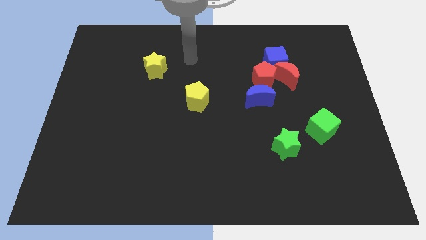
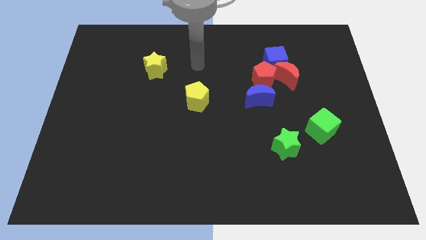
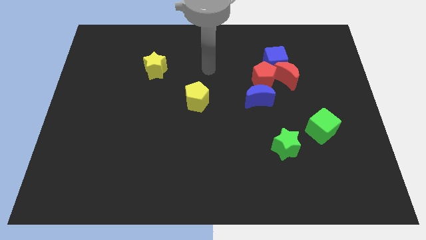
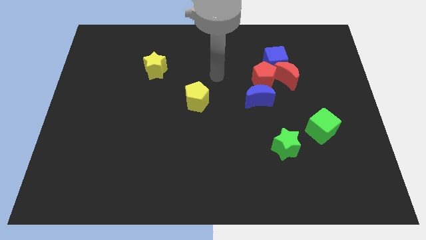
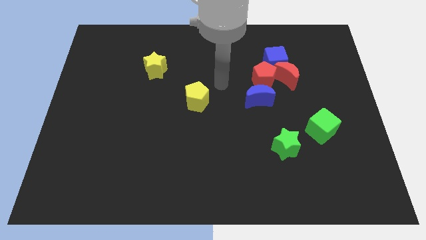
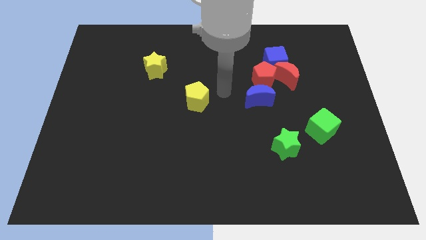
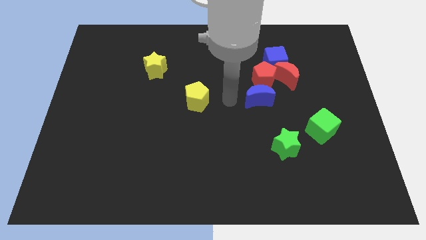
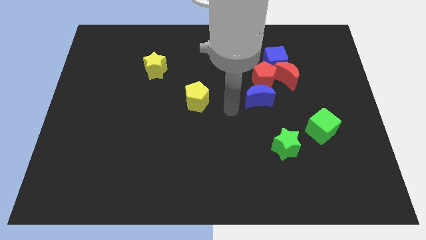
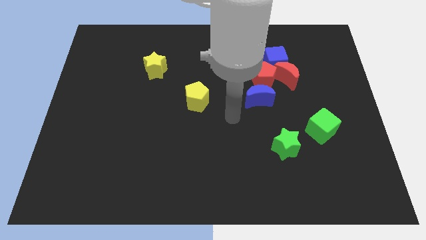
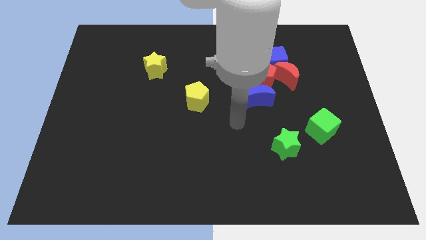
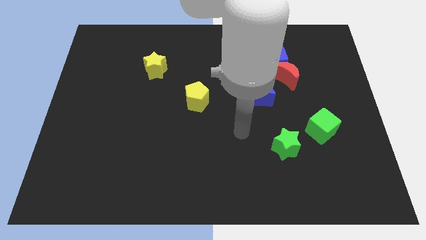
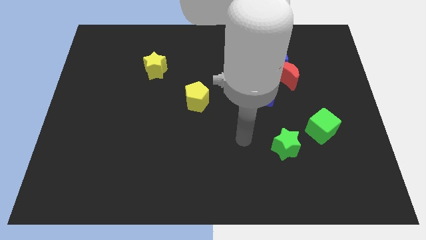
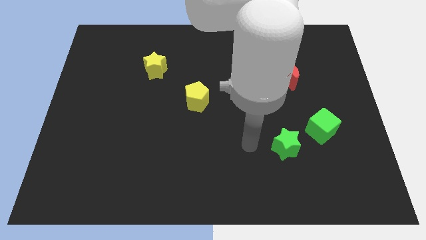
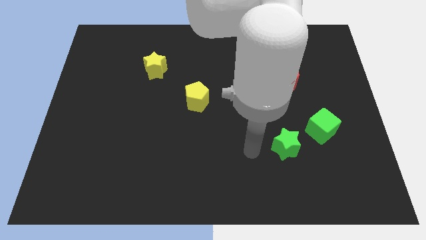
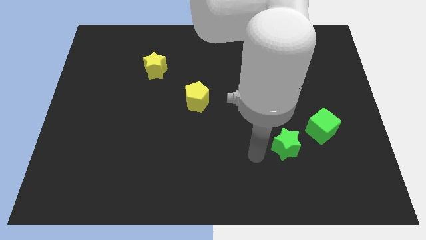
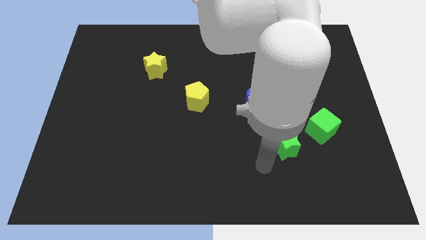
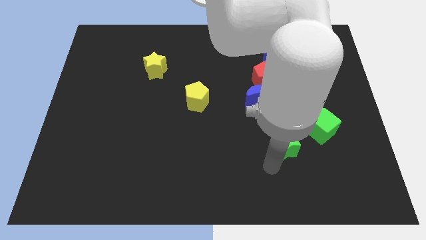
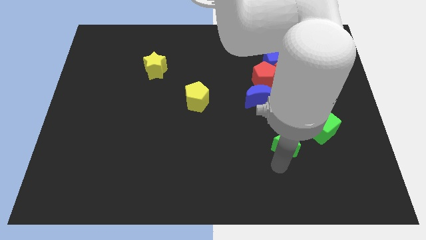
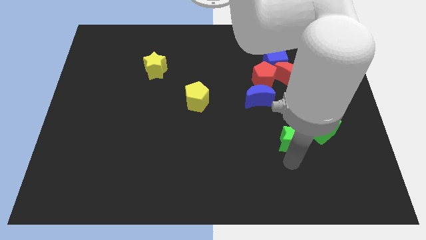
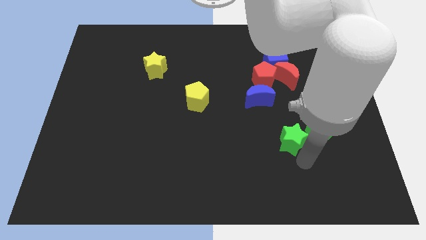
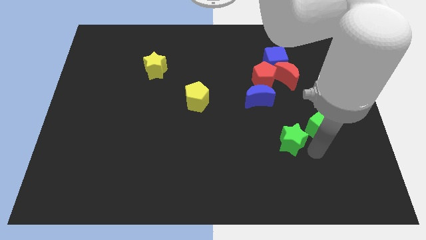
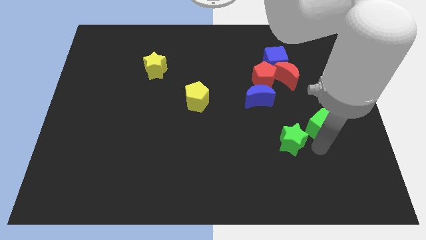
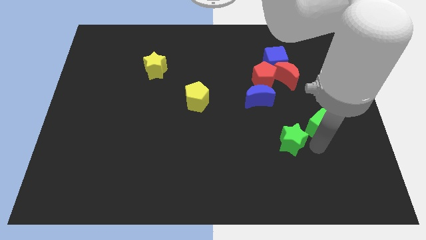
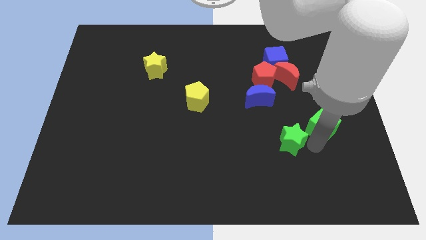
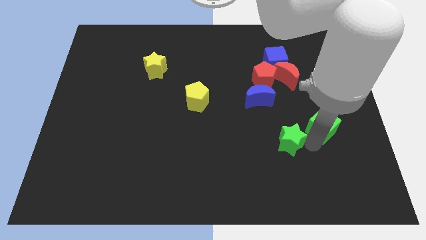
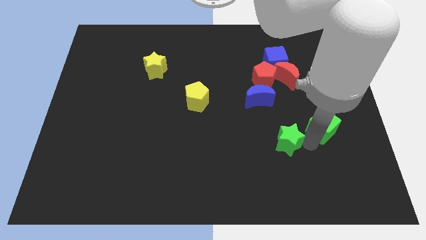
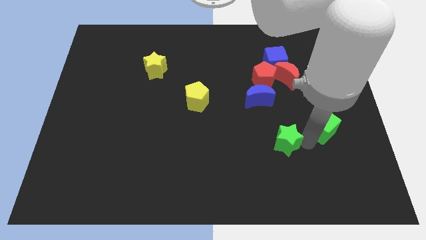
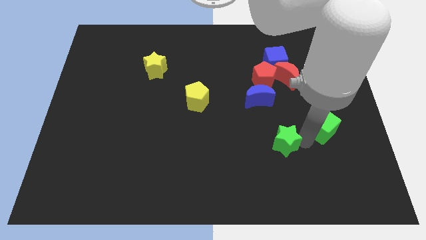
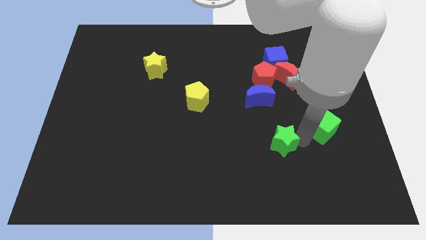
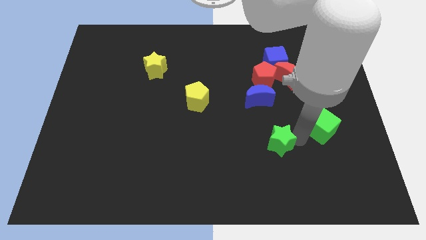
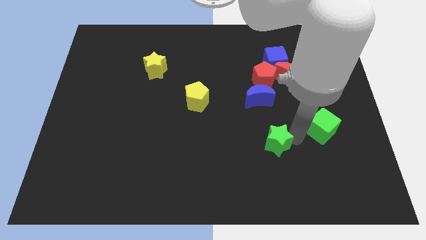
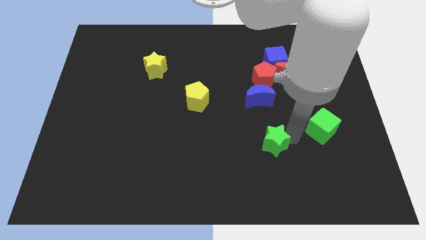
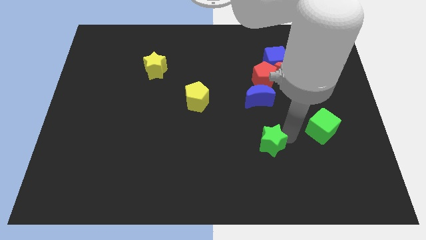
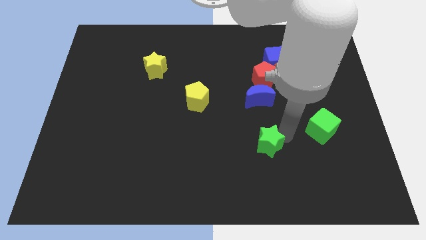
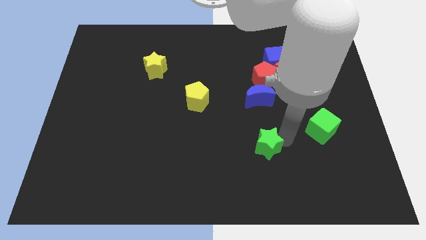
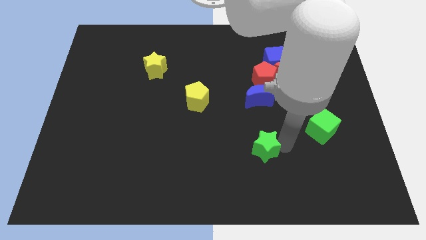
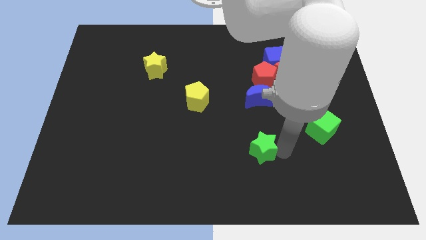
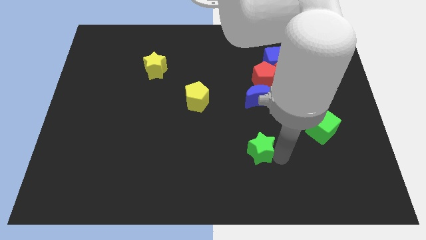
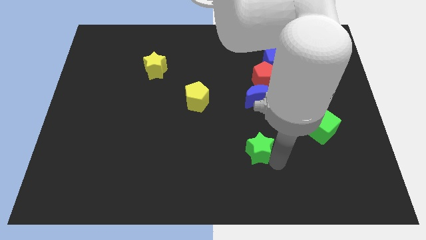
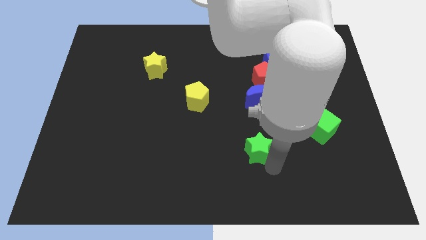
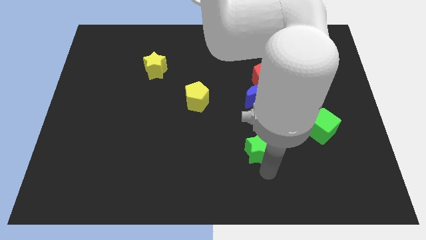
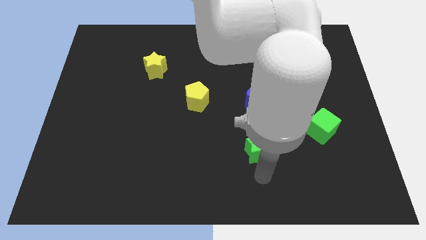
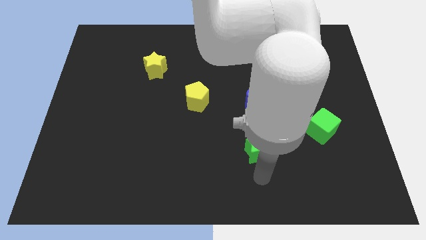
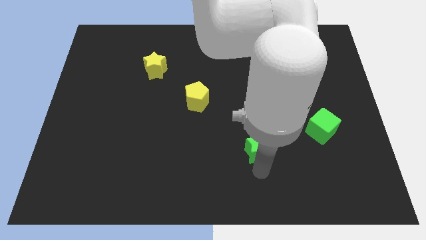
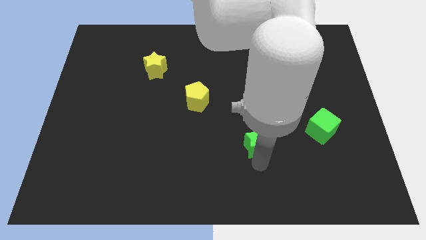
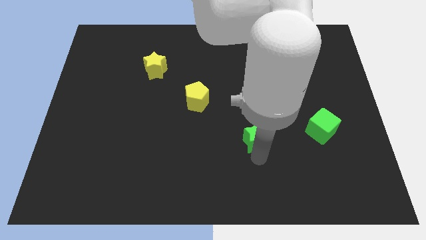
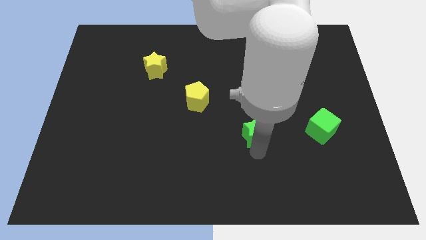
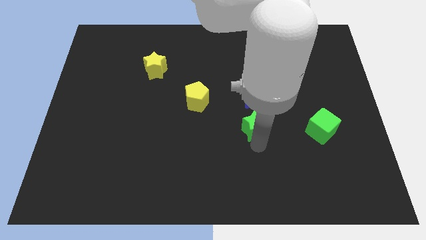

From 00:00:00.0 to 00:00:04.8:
put the green star to the bottom left of the blue moon

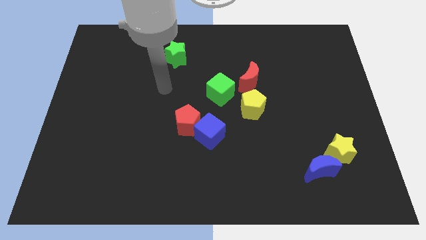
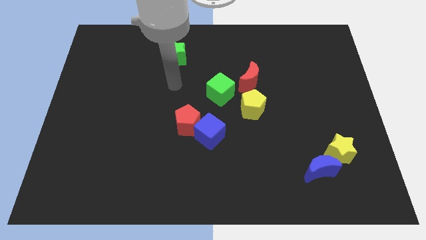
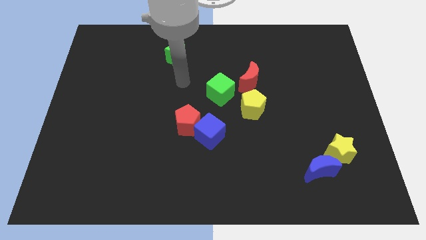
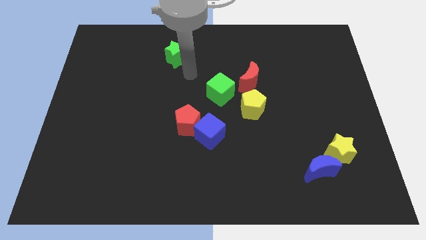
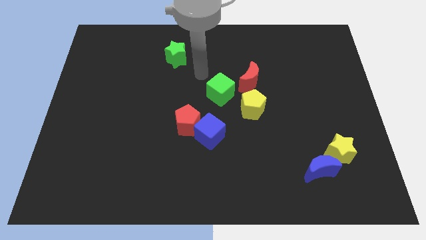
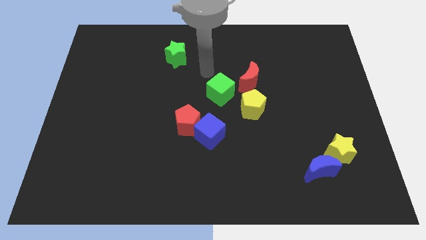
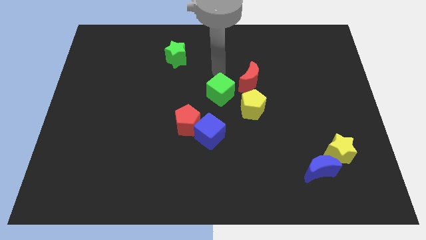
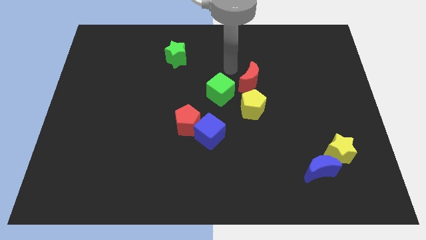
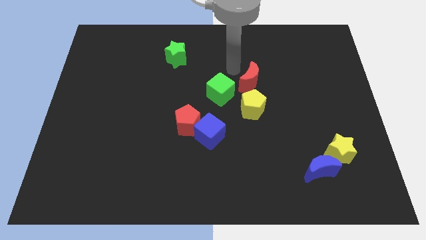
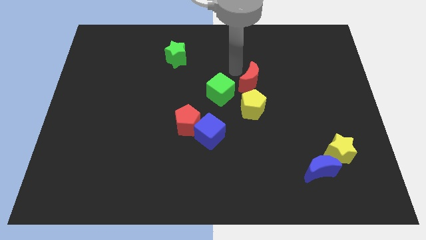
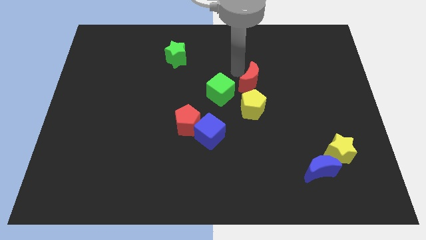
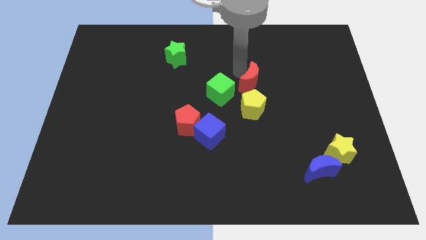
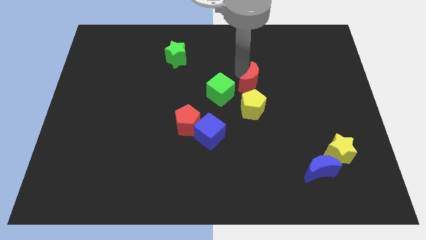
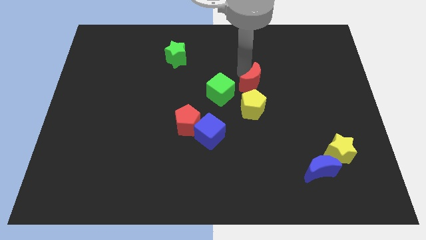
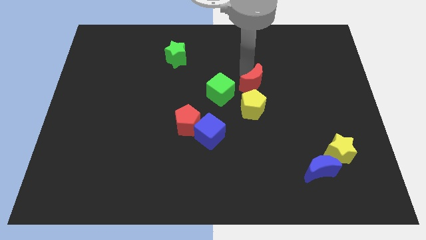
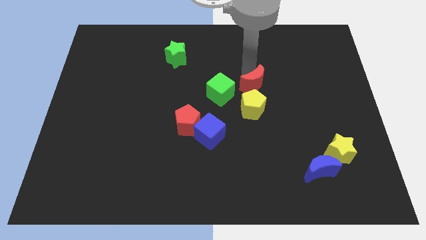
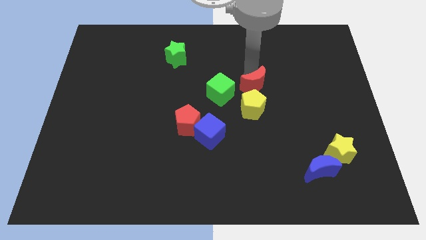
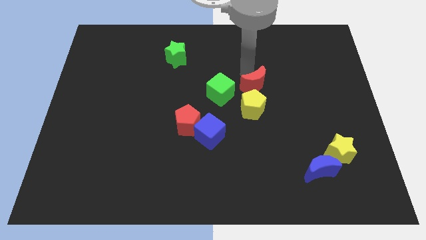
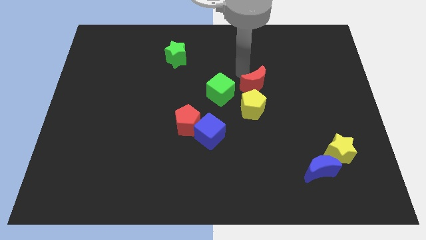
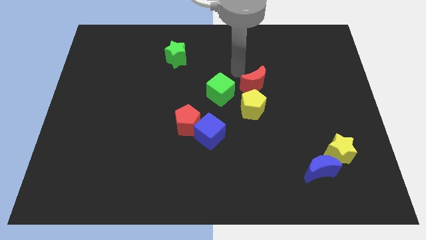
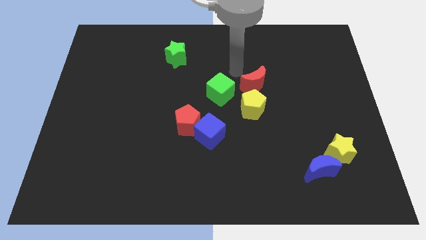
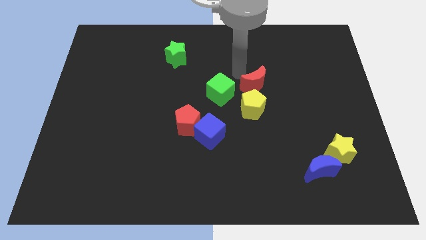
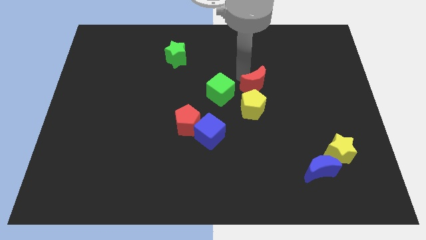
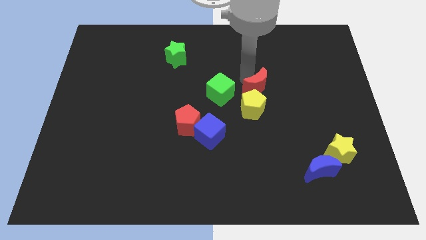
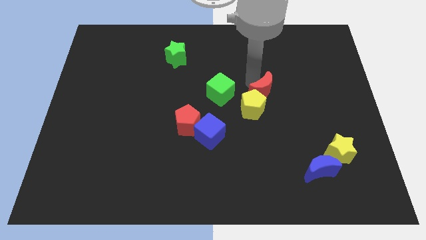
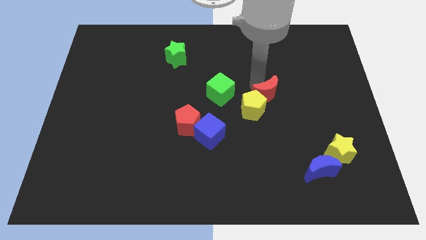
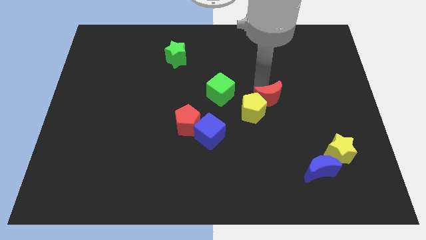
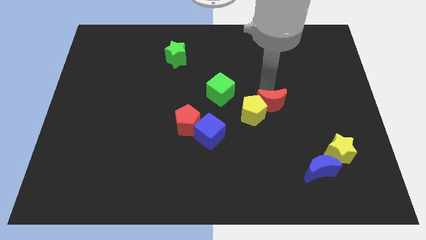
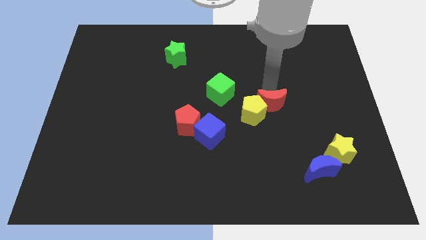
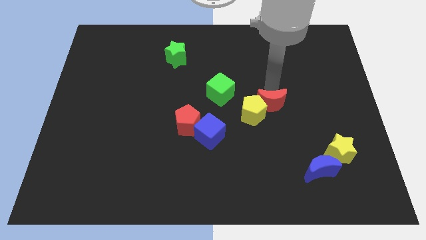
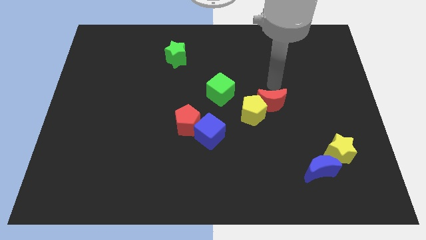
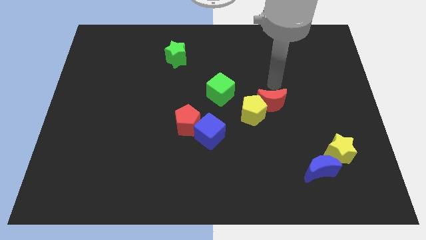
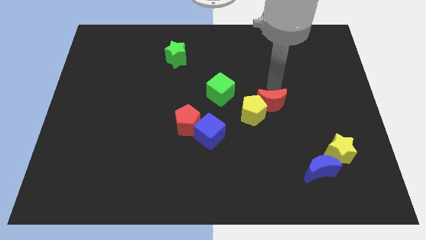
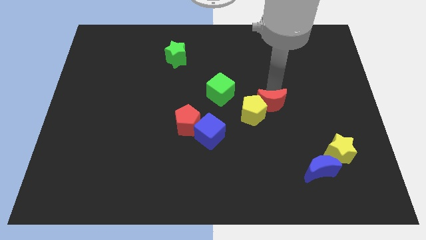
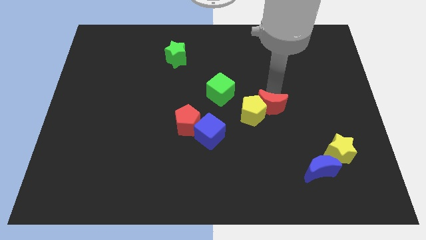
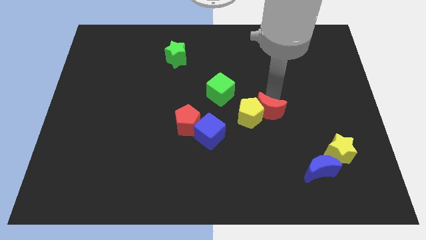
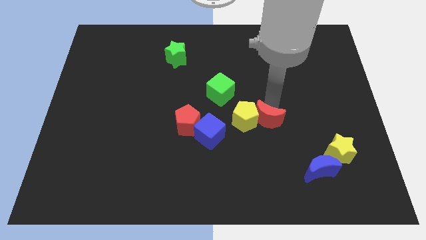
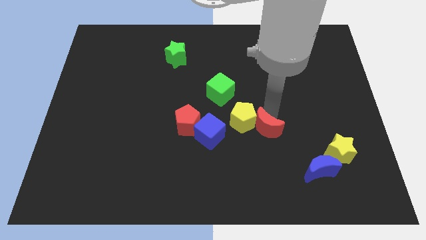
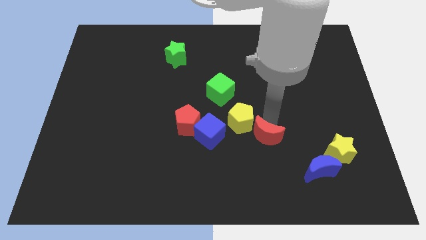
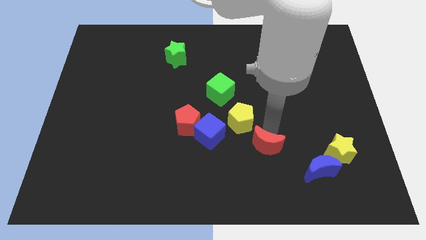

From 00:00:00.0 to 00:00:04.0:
move the red moon below the yellow pentagon
